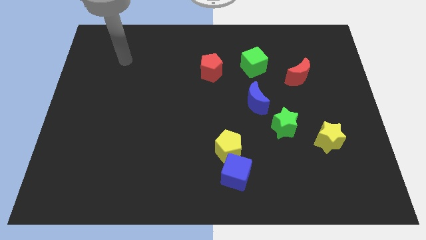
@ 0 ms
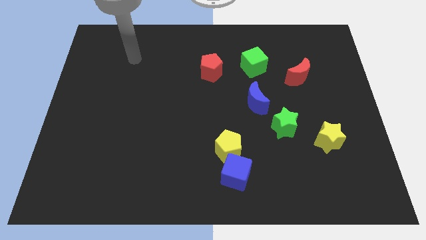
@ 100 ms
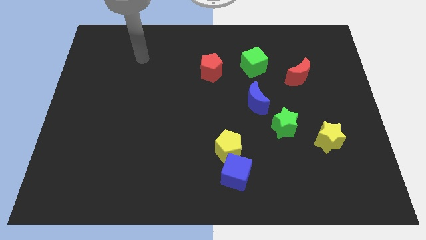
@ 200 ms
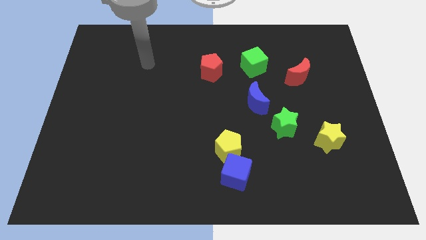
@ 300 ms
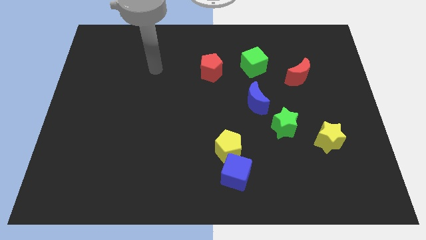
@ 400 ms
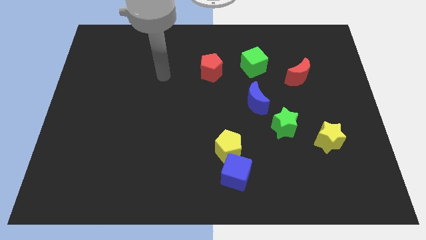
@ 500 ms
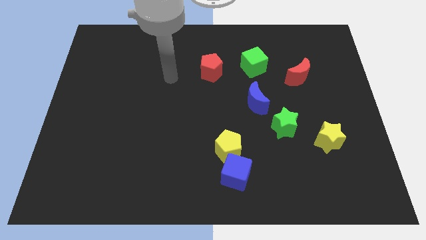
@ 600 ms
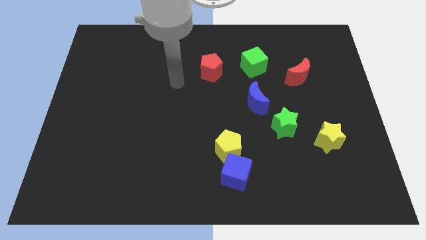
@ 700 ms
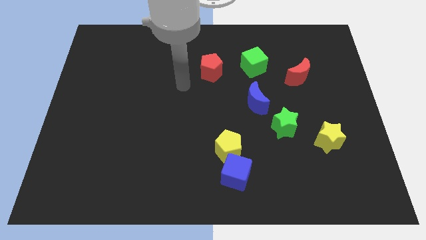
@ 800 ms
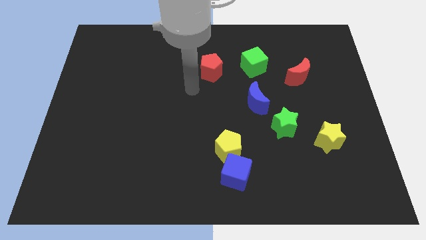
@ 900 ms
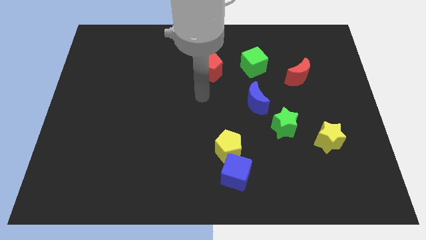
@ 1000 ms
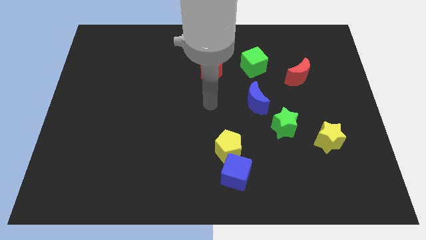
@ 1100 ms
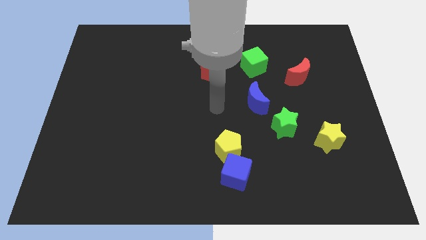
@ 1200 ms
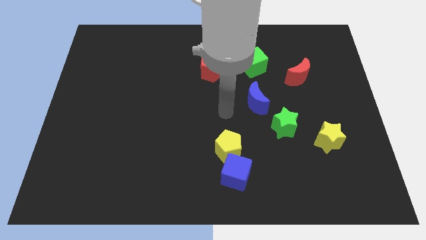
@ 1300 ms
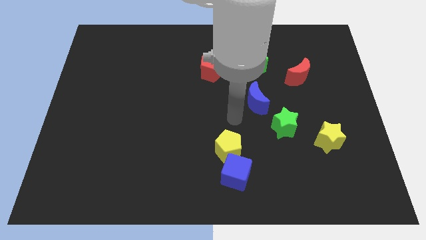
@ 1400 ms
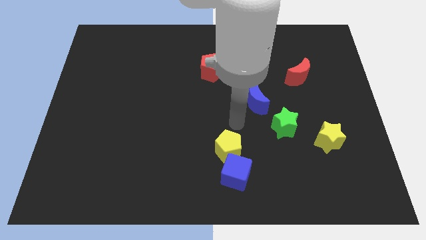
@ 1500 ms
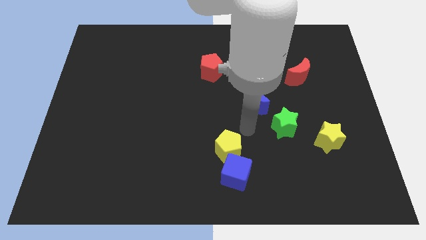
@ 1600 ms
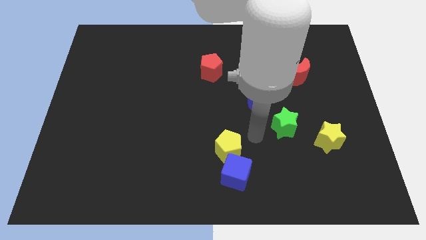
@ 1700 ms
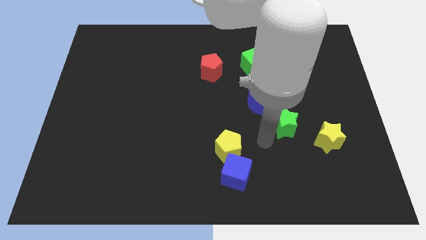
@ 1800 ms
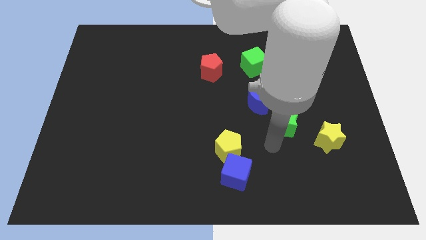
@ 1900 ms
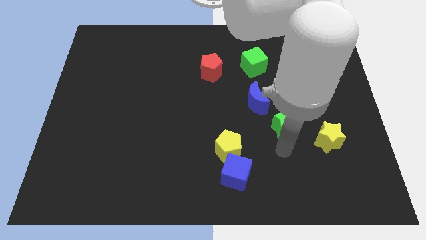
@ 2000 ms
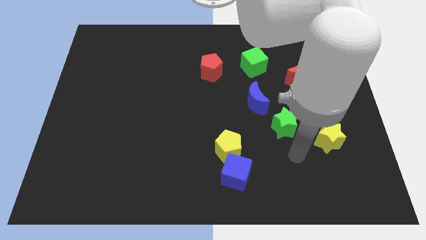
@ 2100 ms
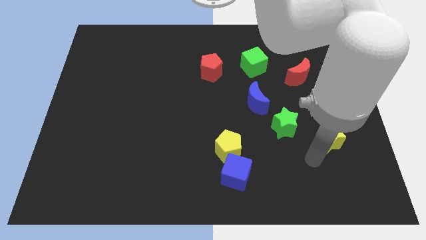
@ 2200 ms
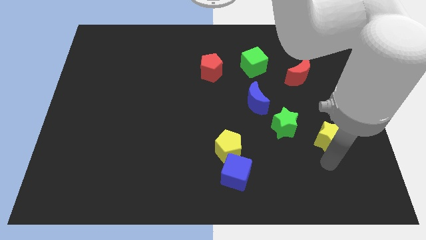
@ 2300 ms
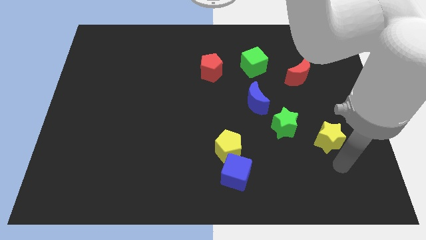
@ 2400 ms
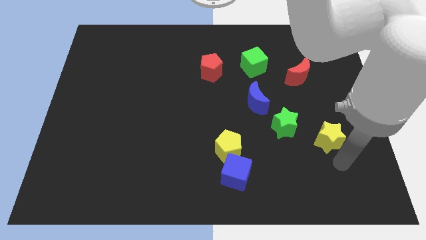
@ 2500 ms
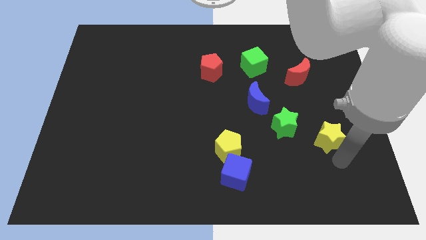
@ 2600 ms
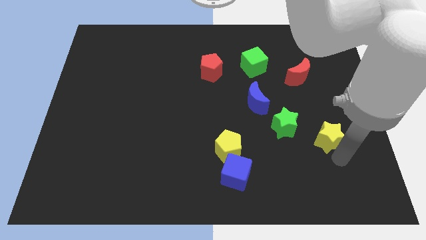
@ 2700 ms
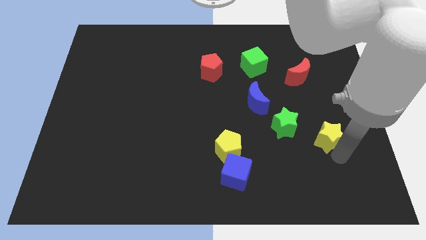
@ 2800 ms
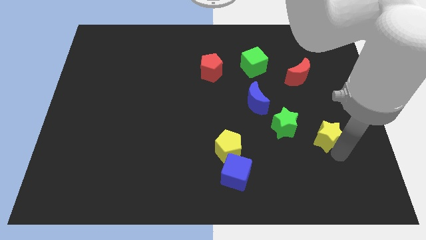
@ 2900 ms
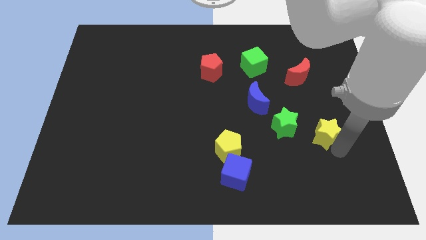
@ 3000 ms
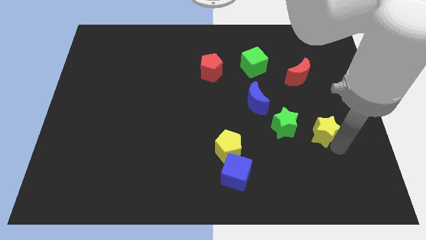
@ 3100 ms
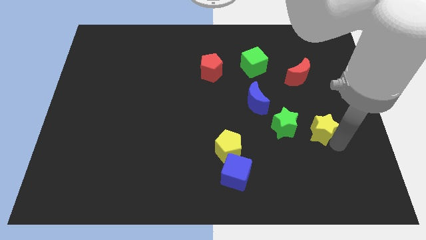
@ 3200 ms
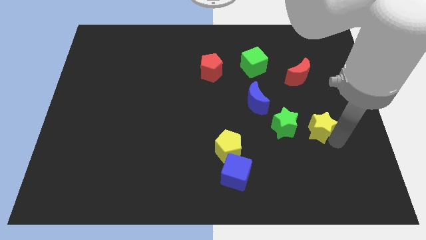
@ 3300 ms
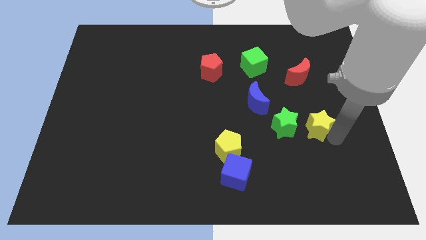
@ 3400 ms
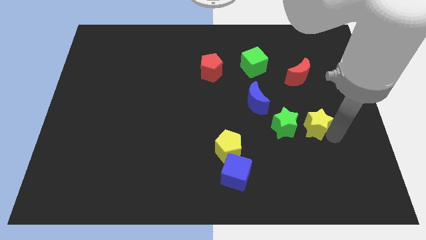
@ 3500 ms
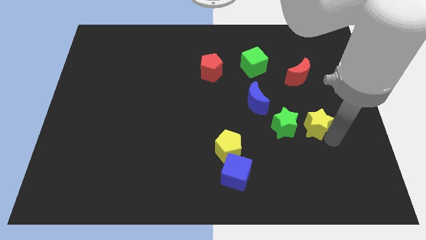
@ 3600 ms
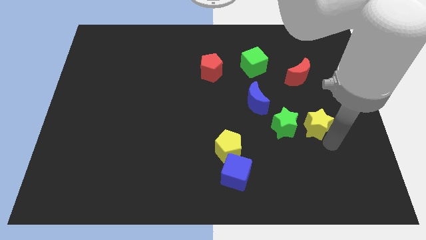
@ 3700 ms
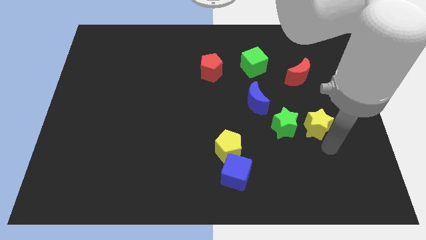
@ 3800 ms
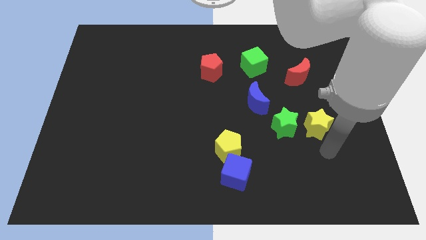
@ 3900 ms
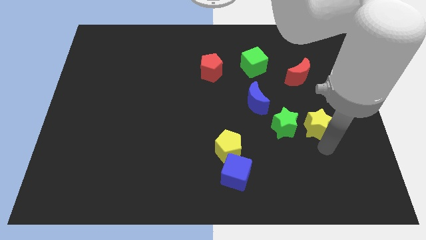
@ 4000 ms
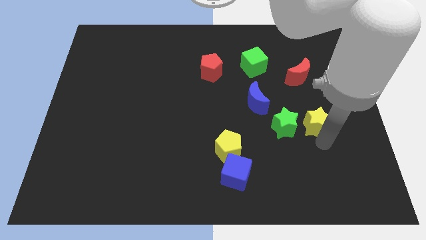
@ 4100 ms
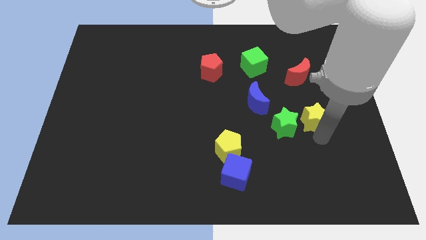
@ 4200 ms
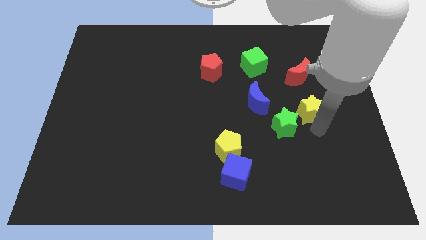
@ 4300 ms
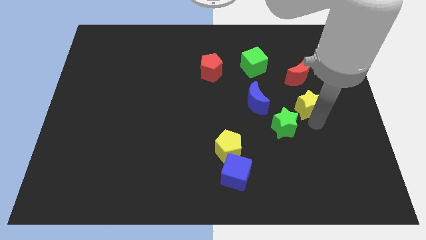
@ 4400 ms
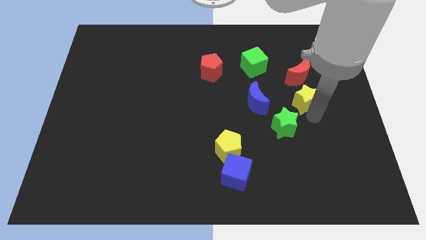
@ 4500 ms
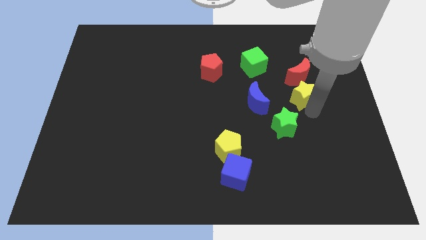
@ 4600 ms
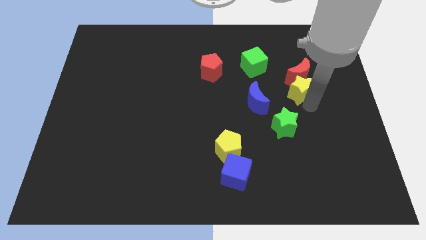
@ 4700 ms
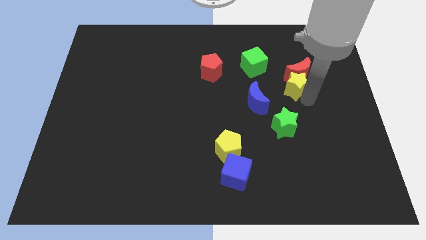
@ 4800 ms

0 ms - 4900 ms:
put the yellow star to the top right of the blue moon

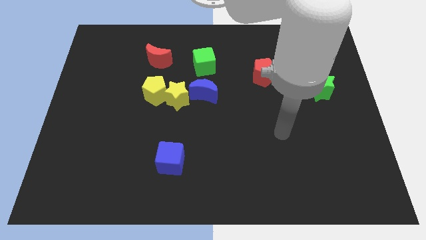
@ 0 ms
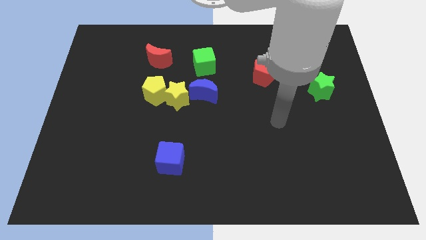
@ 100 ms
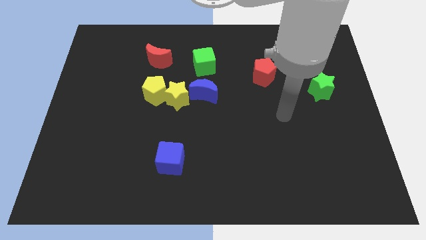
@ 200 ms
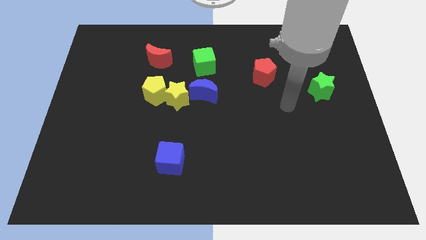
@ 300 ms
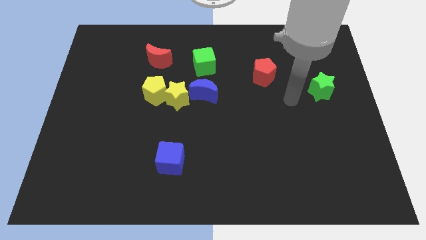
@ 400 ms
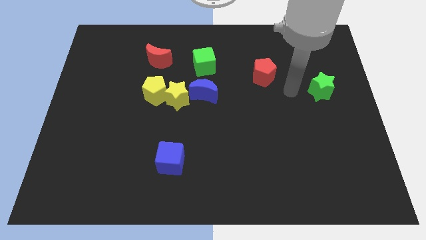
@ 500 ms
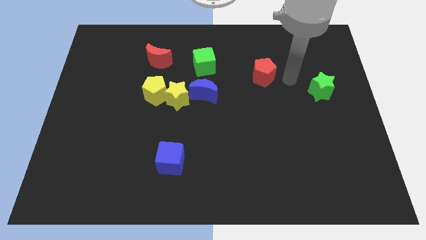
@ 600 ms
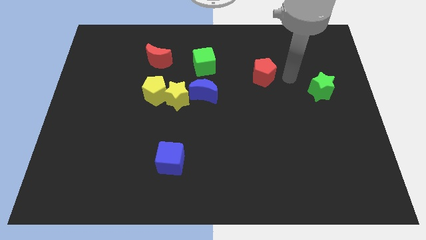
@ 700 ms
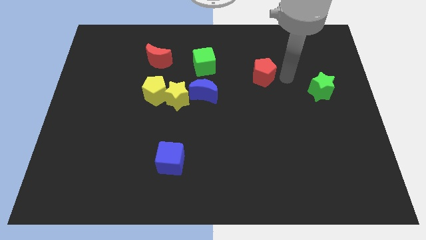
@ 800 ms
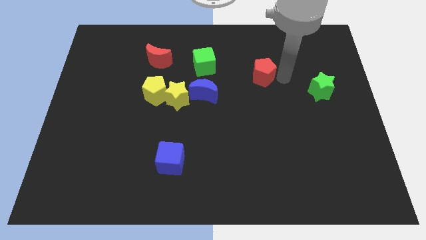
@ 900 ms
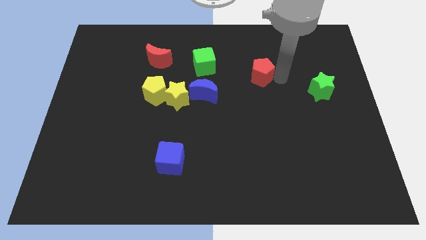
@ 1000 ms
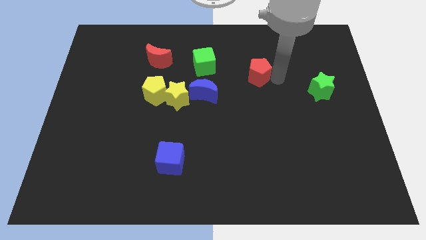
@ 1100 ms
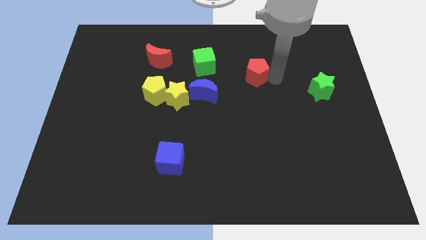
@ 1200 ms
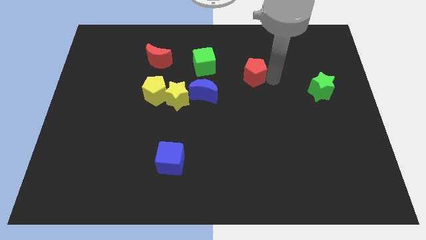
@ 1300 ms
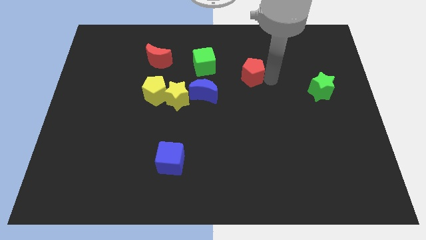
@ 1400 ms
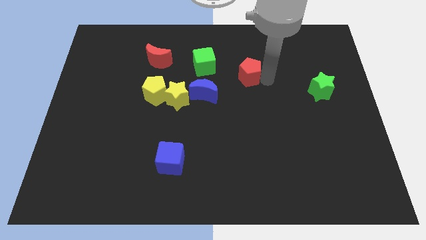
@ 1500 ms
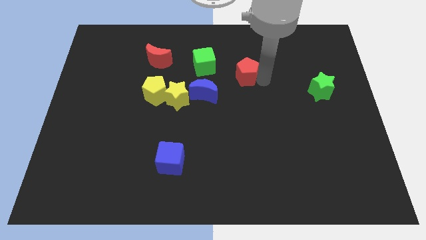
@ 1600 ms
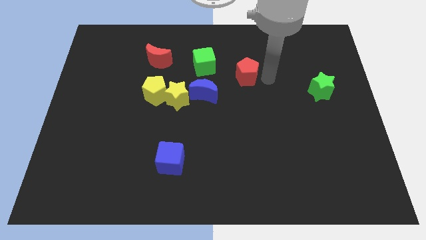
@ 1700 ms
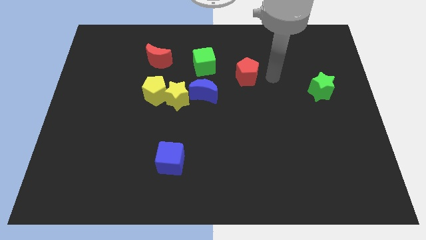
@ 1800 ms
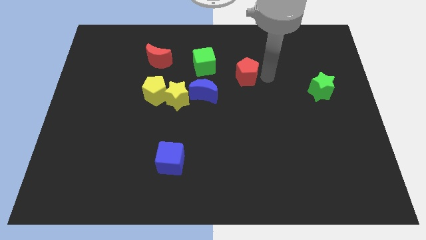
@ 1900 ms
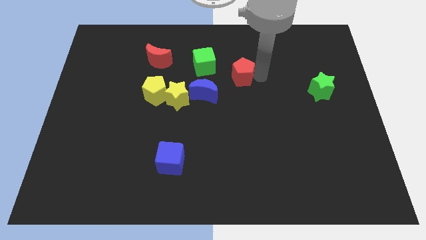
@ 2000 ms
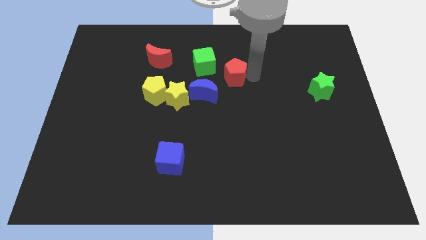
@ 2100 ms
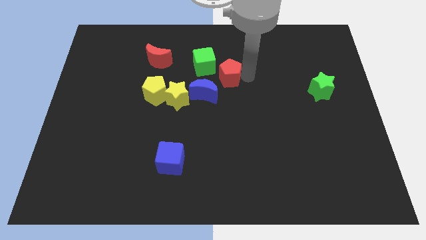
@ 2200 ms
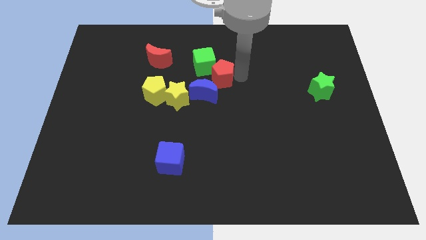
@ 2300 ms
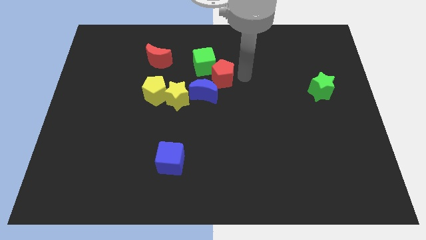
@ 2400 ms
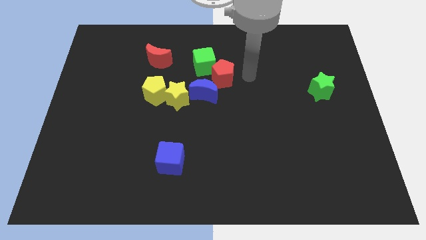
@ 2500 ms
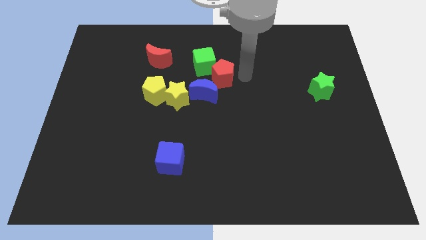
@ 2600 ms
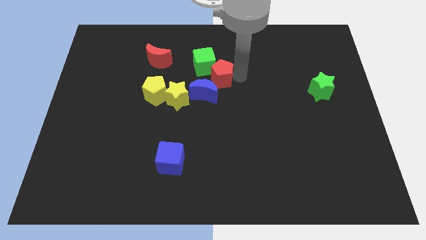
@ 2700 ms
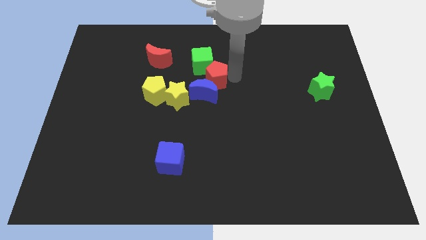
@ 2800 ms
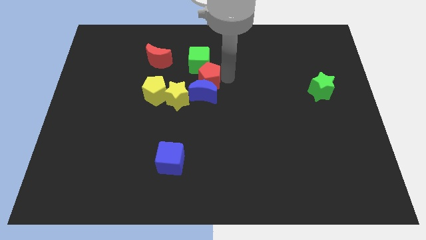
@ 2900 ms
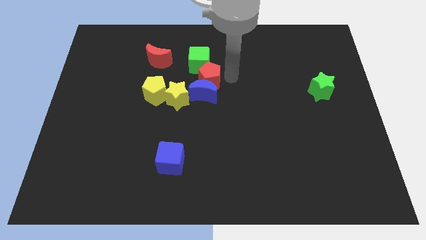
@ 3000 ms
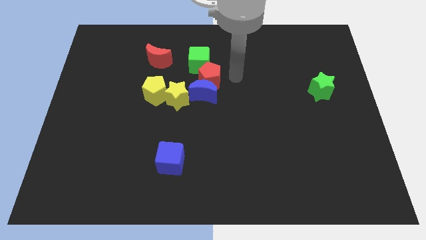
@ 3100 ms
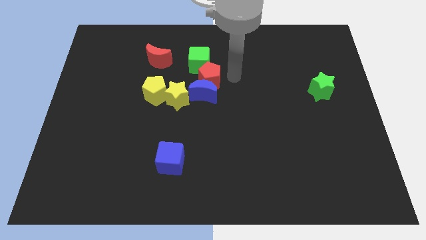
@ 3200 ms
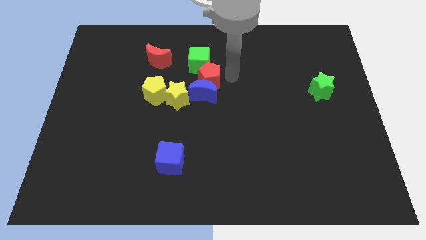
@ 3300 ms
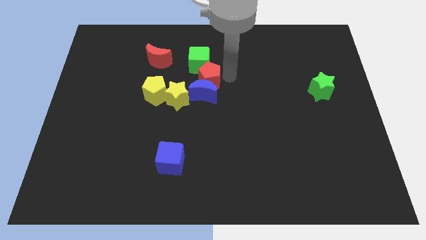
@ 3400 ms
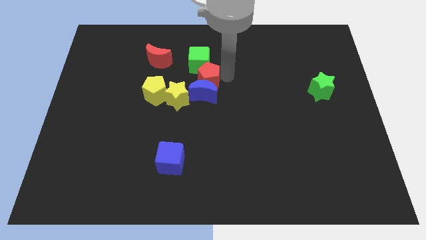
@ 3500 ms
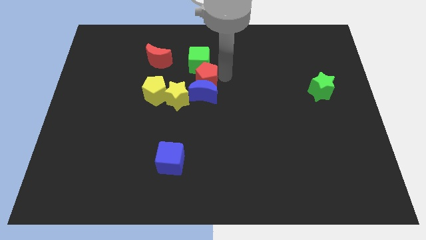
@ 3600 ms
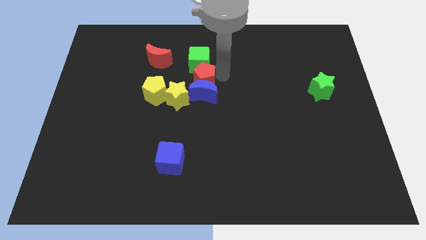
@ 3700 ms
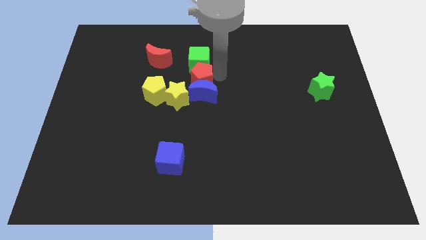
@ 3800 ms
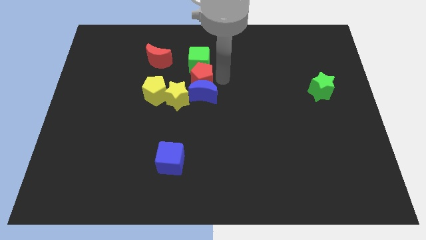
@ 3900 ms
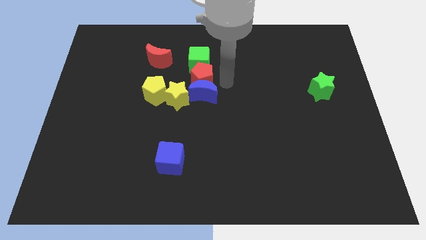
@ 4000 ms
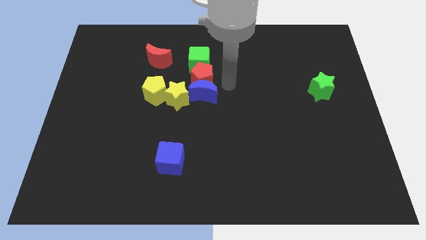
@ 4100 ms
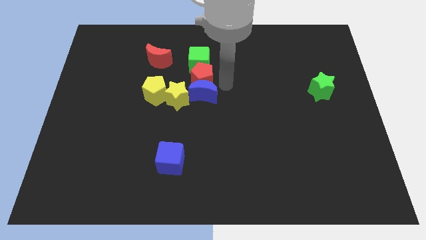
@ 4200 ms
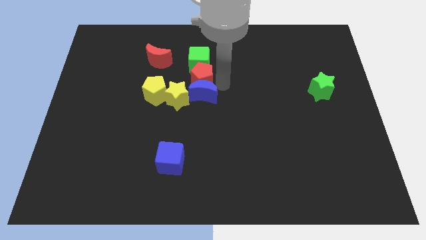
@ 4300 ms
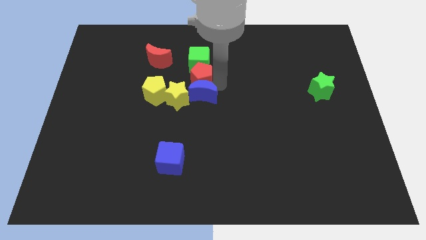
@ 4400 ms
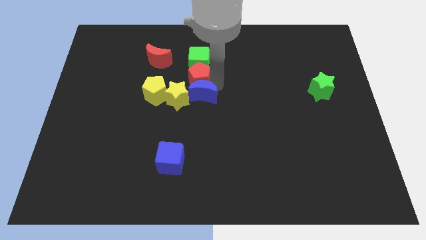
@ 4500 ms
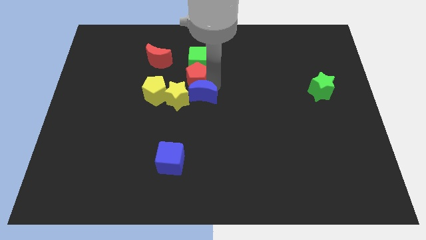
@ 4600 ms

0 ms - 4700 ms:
push the red pentagon to the bottom right of the red moon
